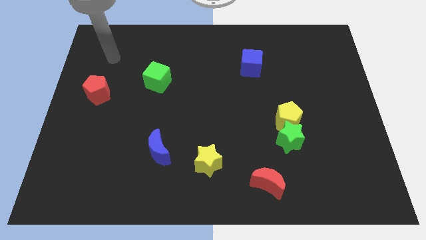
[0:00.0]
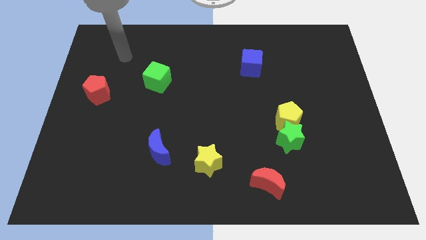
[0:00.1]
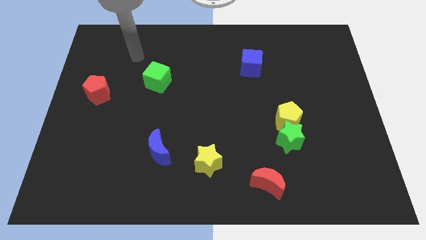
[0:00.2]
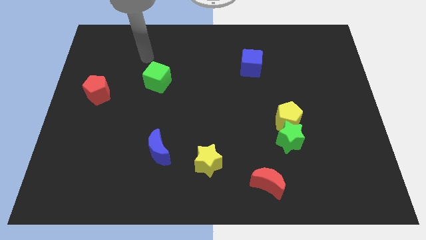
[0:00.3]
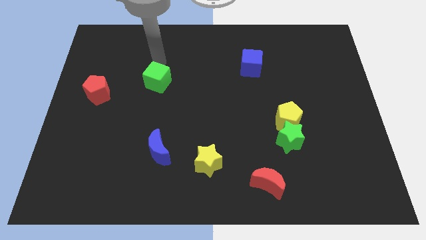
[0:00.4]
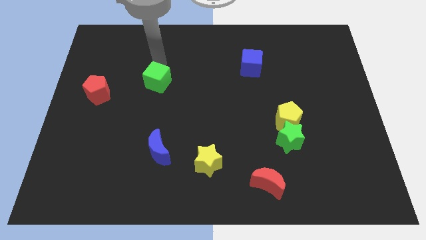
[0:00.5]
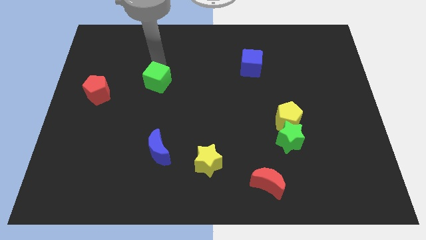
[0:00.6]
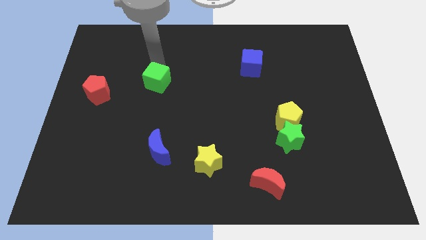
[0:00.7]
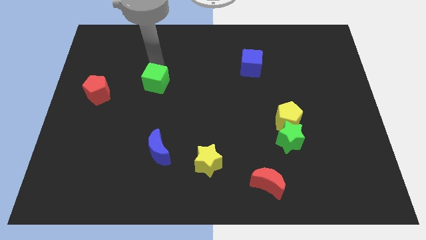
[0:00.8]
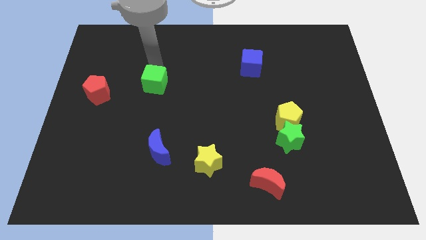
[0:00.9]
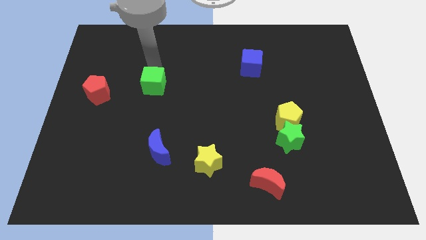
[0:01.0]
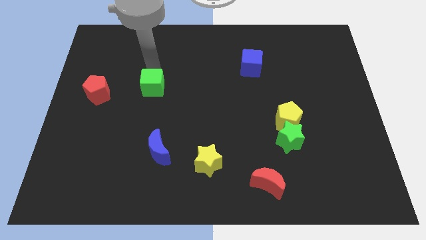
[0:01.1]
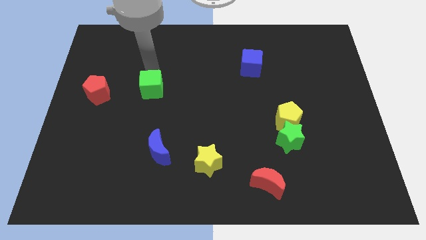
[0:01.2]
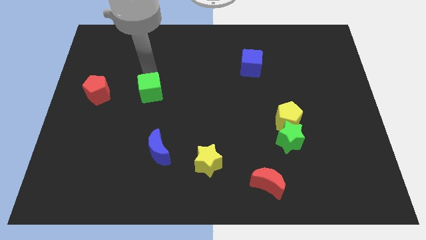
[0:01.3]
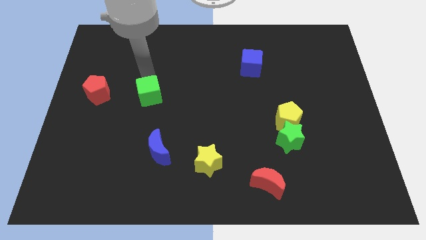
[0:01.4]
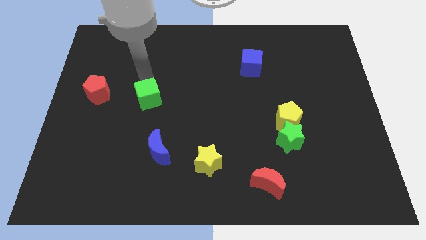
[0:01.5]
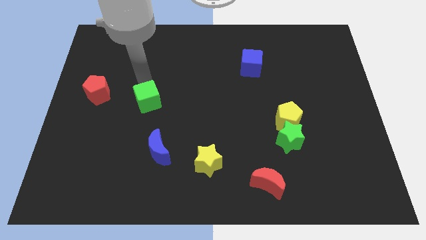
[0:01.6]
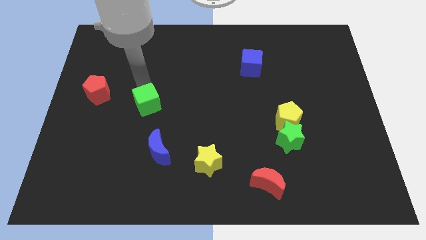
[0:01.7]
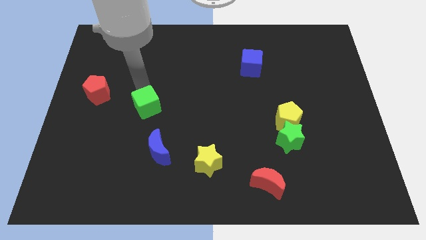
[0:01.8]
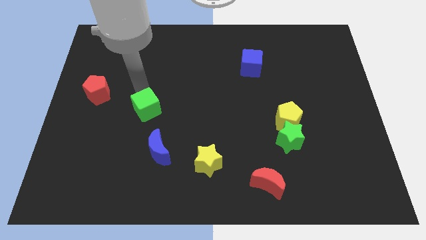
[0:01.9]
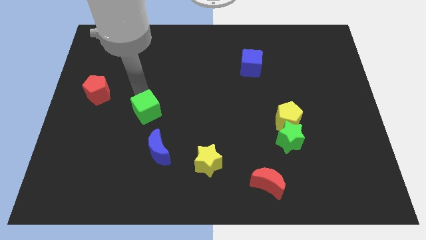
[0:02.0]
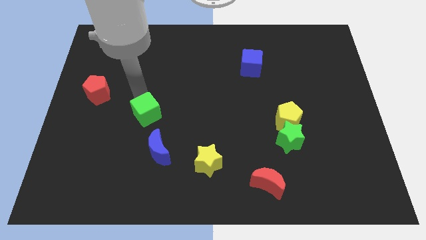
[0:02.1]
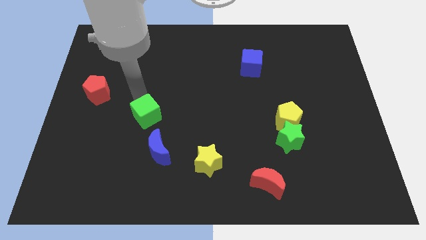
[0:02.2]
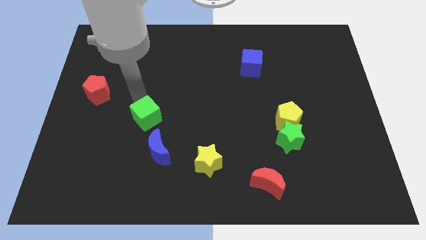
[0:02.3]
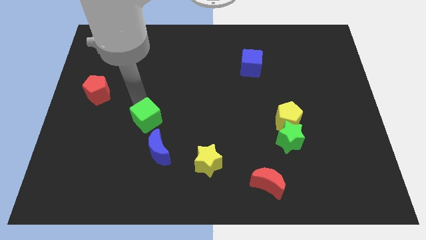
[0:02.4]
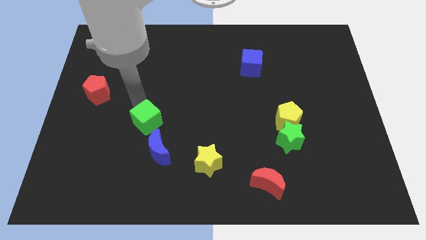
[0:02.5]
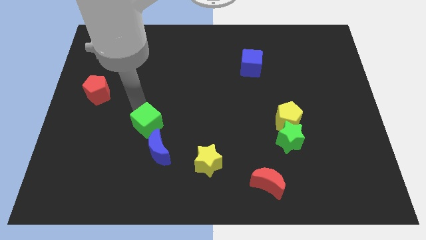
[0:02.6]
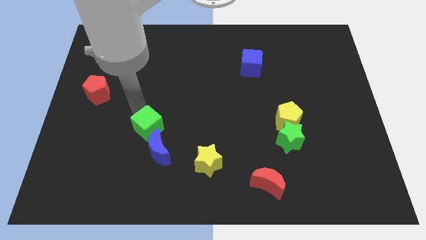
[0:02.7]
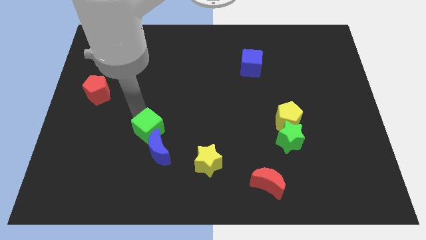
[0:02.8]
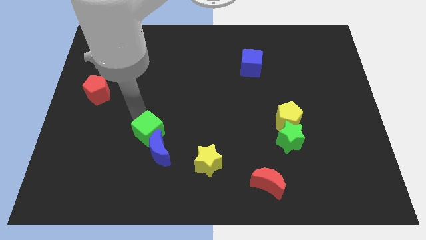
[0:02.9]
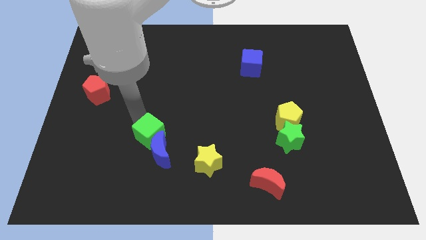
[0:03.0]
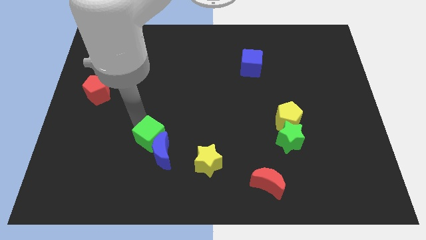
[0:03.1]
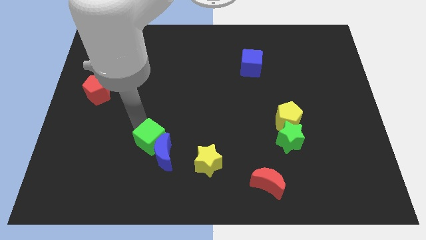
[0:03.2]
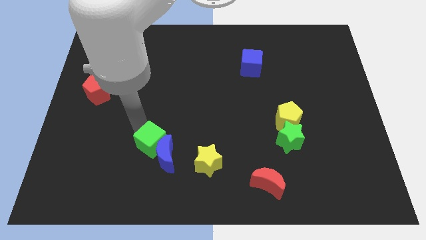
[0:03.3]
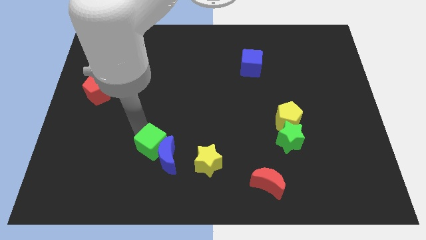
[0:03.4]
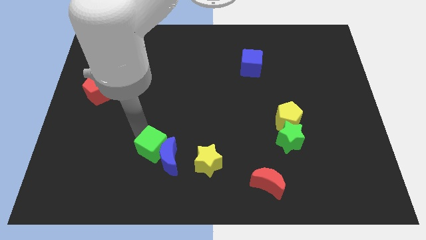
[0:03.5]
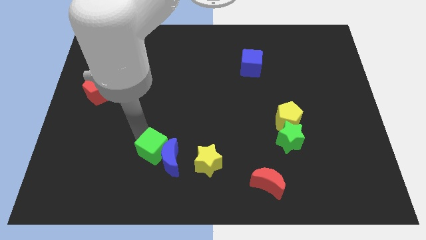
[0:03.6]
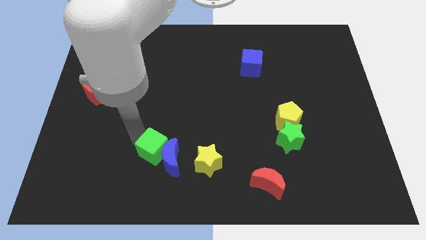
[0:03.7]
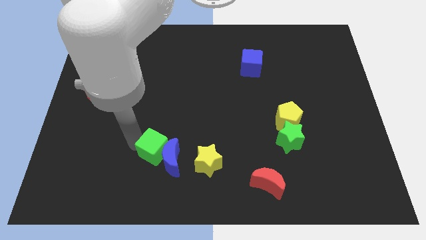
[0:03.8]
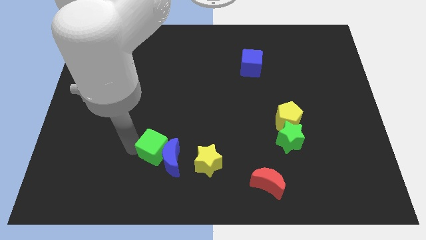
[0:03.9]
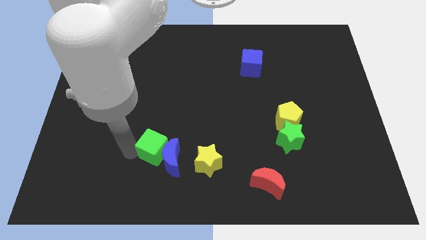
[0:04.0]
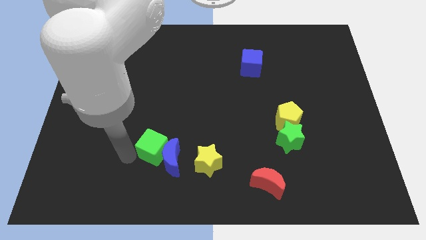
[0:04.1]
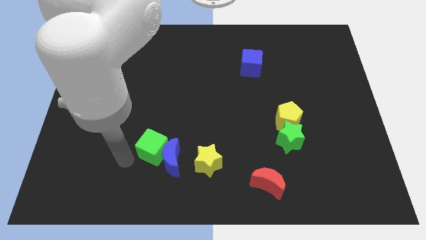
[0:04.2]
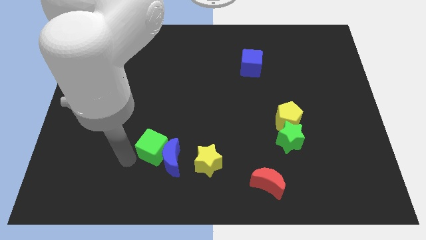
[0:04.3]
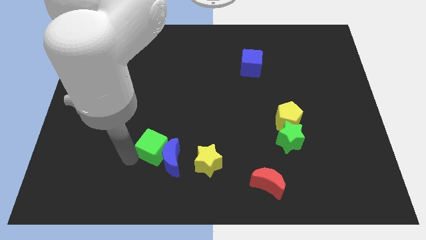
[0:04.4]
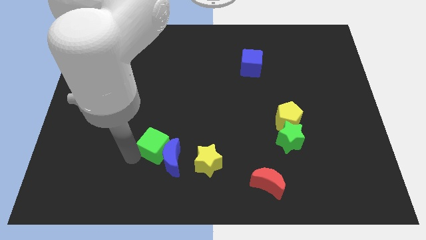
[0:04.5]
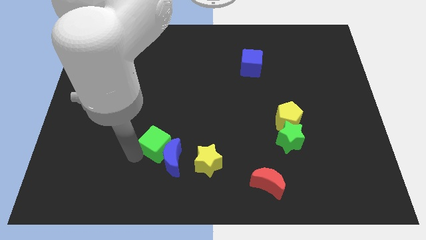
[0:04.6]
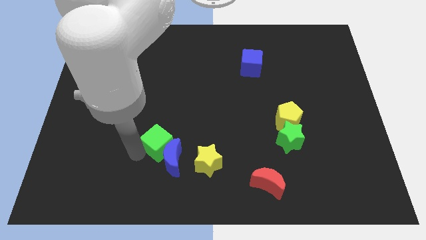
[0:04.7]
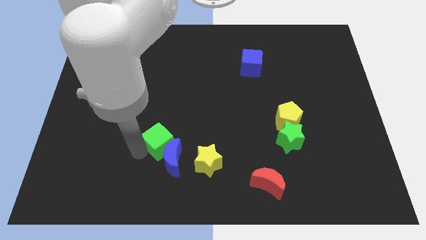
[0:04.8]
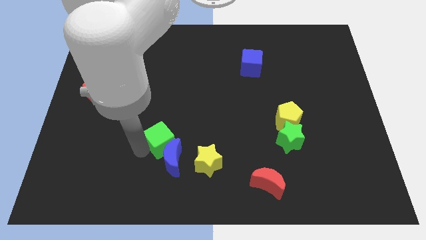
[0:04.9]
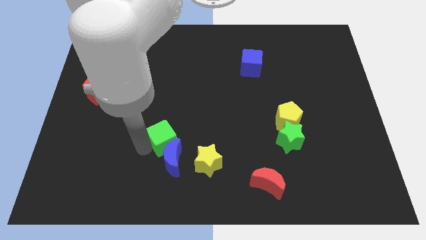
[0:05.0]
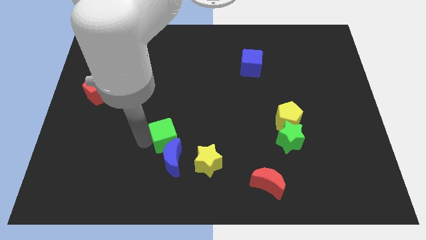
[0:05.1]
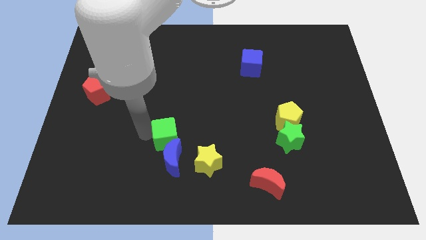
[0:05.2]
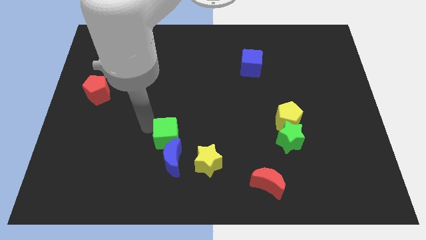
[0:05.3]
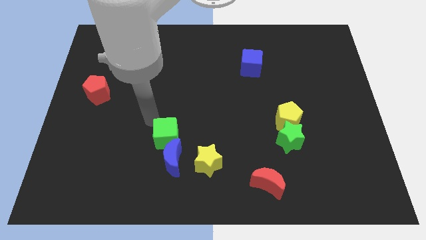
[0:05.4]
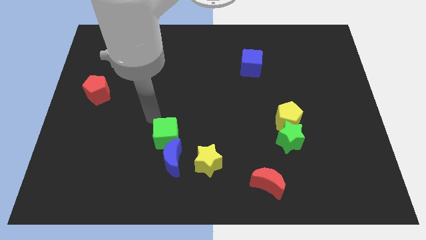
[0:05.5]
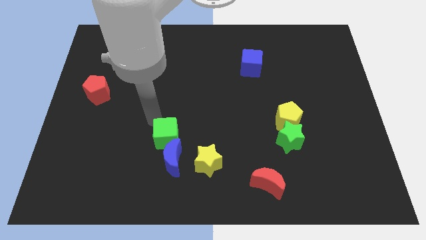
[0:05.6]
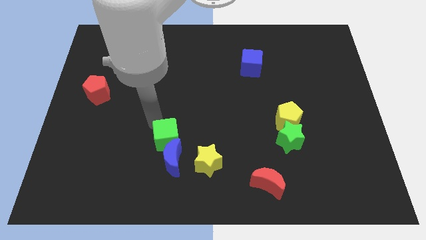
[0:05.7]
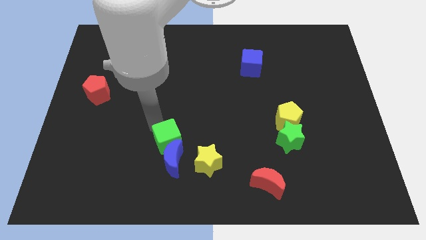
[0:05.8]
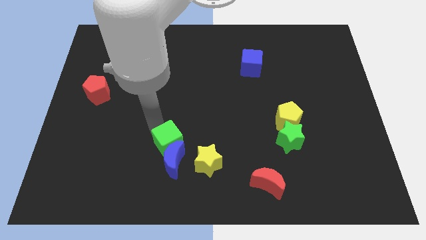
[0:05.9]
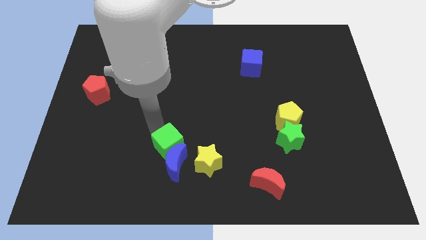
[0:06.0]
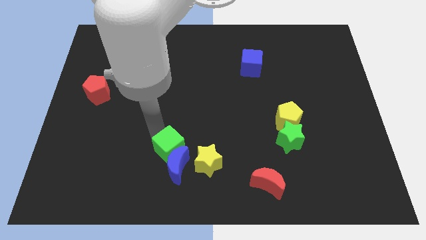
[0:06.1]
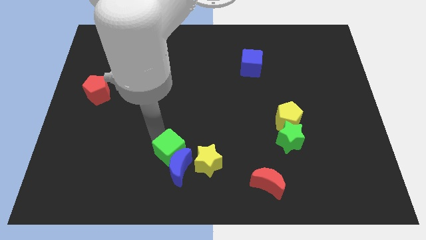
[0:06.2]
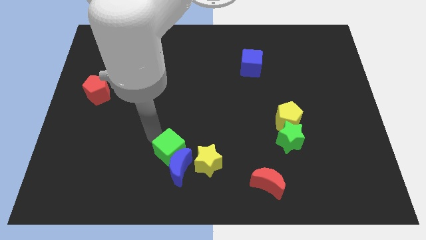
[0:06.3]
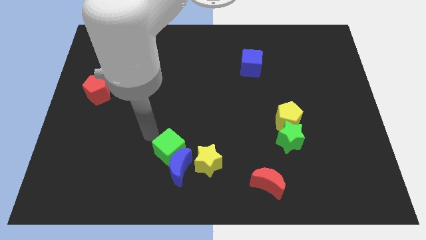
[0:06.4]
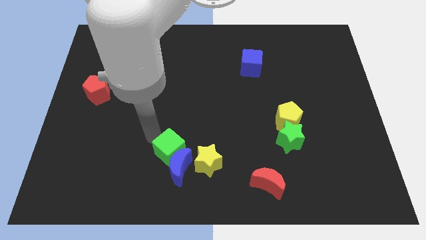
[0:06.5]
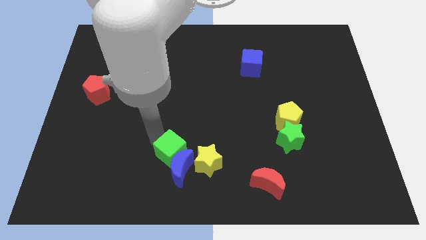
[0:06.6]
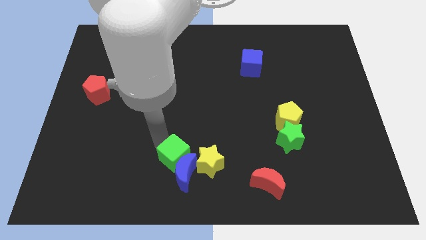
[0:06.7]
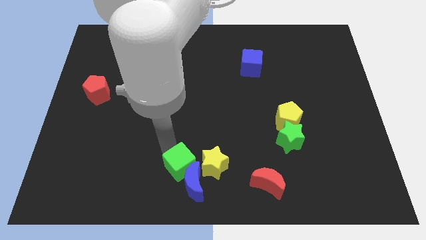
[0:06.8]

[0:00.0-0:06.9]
move the green cube to the bottom

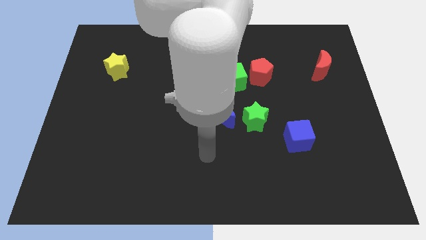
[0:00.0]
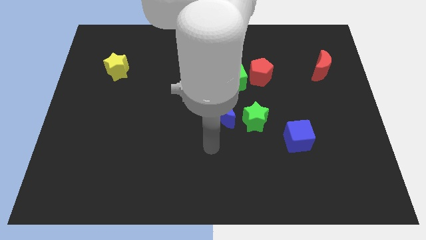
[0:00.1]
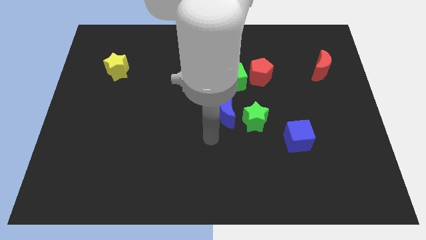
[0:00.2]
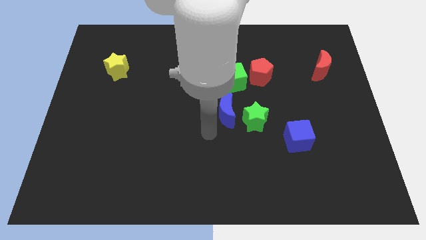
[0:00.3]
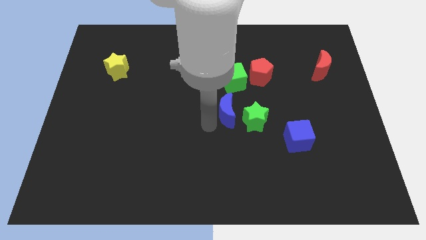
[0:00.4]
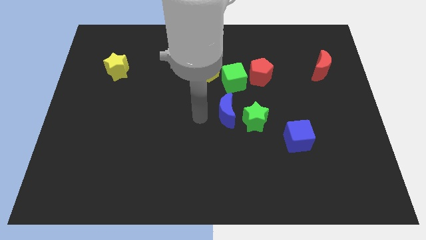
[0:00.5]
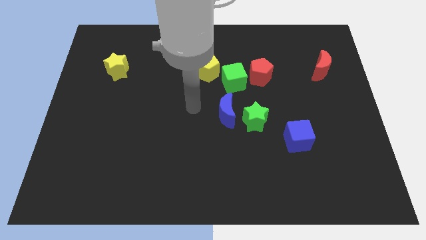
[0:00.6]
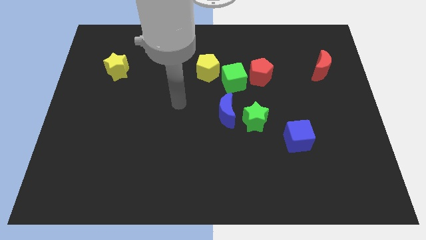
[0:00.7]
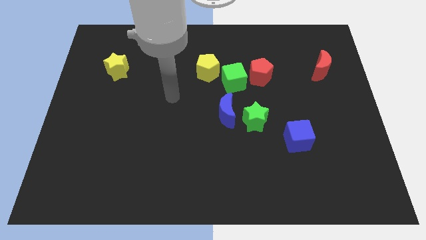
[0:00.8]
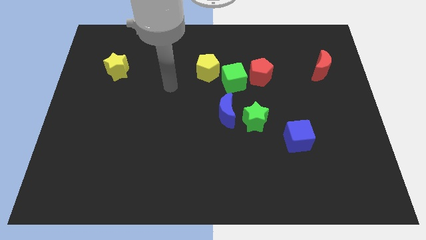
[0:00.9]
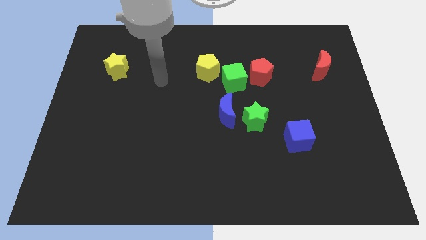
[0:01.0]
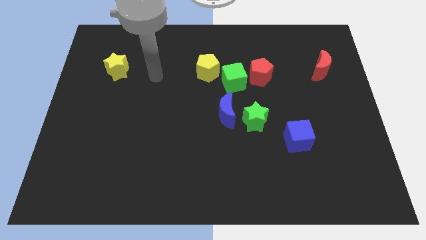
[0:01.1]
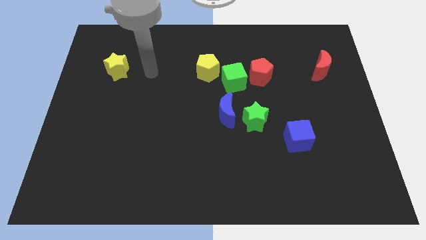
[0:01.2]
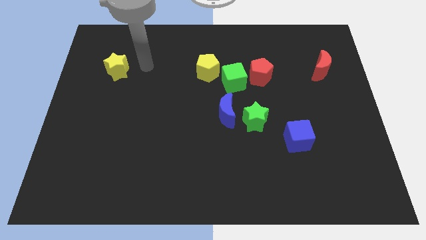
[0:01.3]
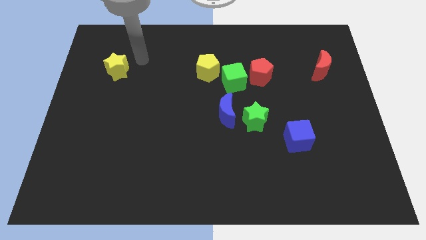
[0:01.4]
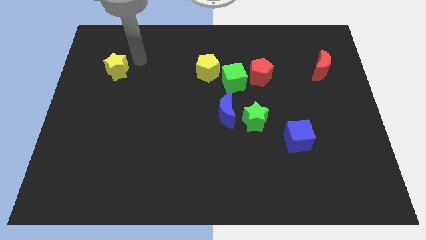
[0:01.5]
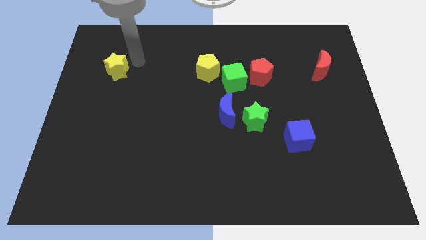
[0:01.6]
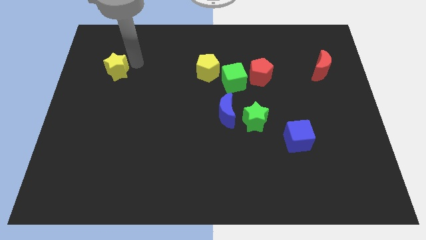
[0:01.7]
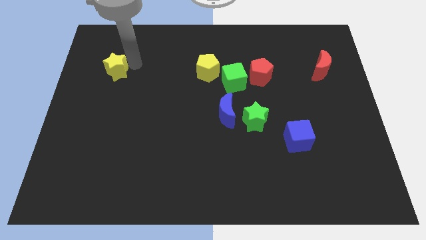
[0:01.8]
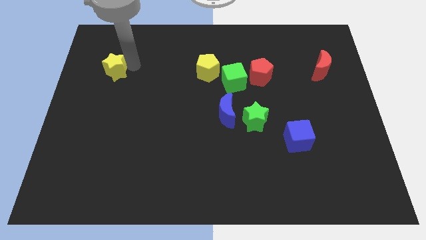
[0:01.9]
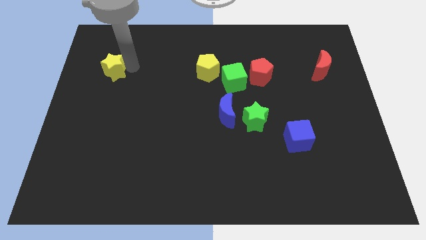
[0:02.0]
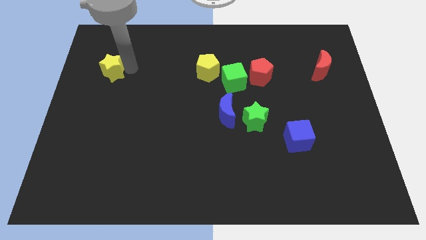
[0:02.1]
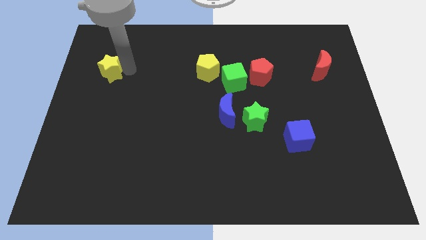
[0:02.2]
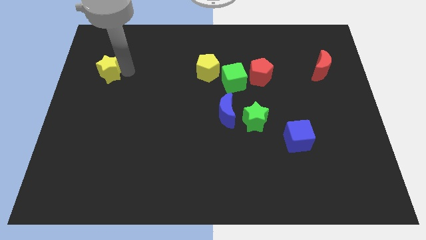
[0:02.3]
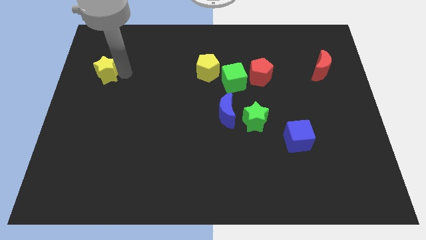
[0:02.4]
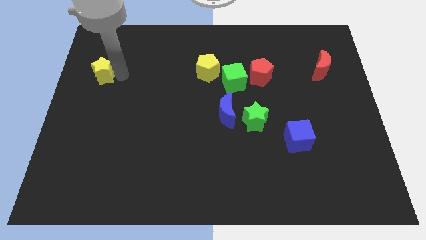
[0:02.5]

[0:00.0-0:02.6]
push the yellow star to the center left
